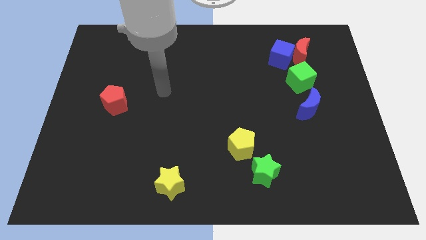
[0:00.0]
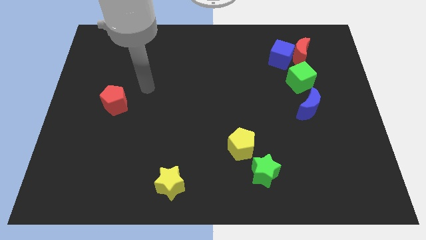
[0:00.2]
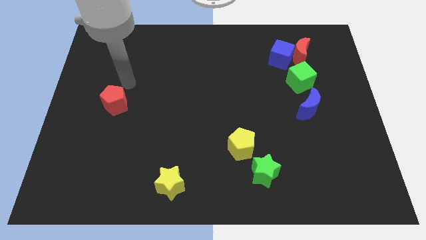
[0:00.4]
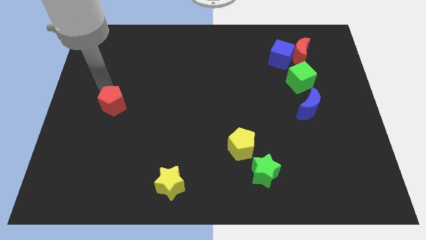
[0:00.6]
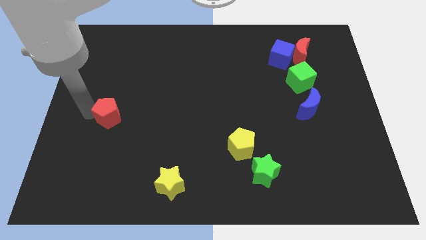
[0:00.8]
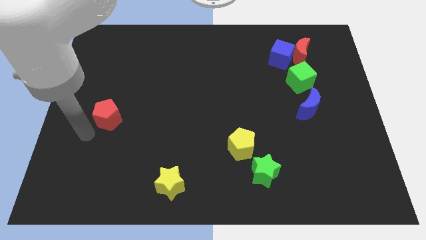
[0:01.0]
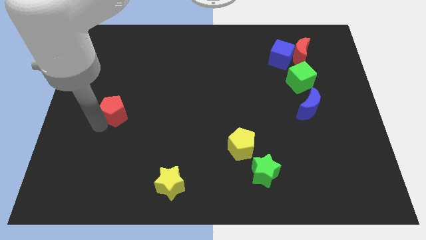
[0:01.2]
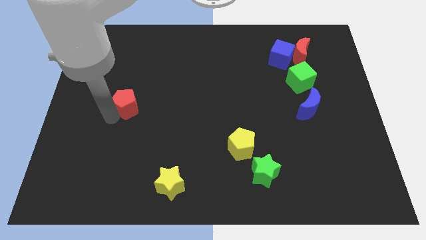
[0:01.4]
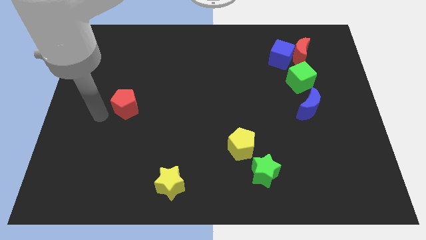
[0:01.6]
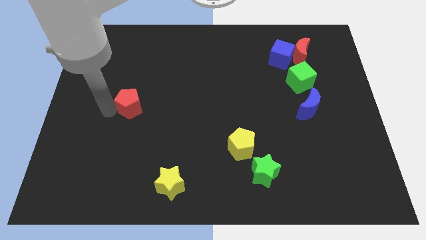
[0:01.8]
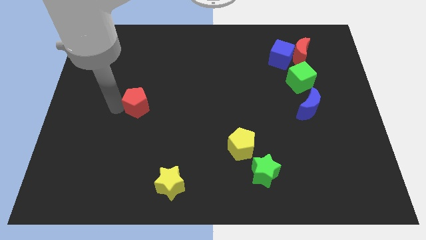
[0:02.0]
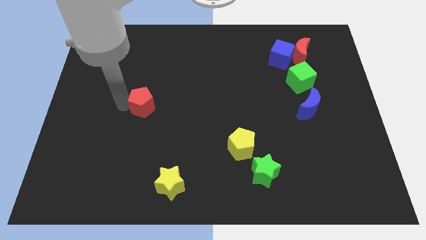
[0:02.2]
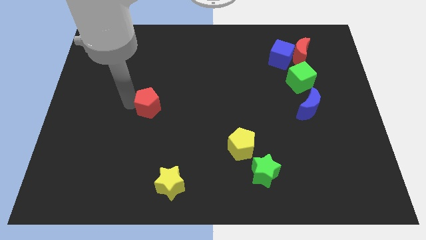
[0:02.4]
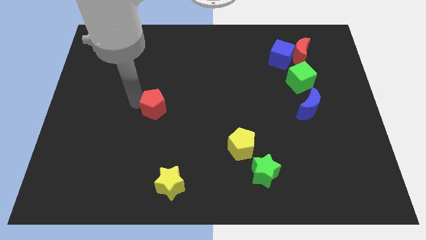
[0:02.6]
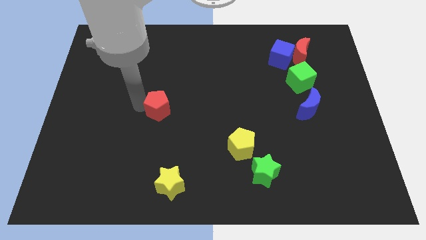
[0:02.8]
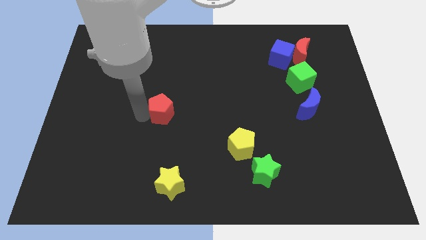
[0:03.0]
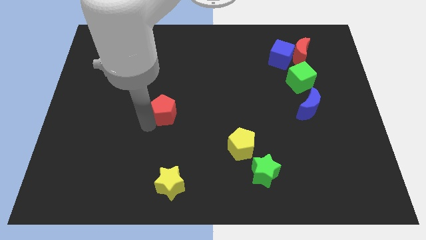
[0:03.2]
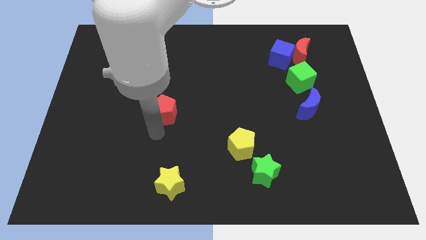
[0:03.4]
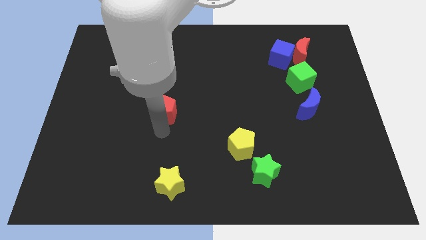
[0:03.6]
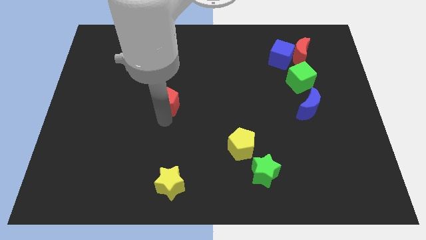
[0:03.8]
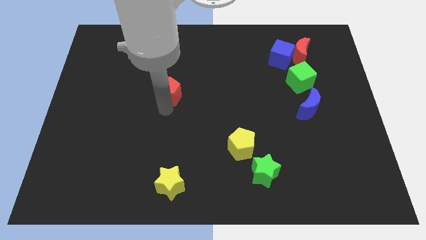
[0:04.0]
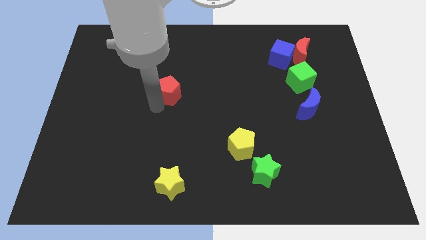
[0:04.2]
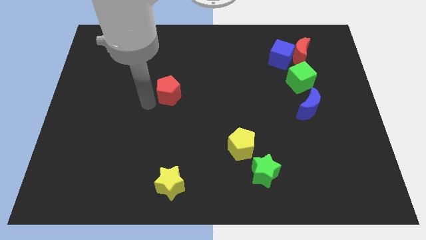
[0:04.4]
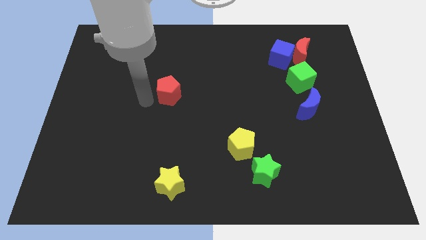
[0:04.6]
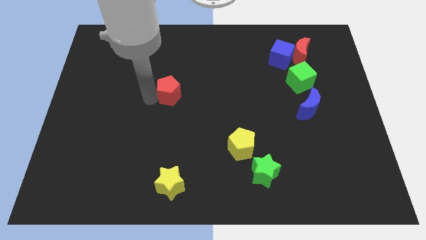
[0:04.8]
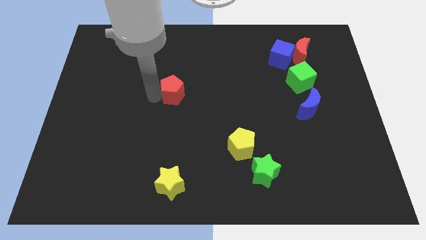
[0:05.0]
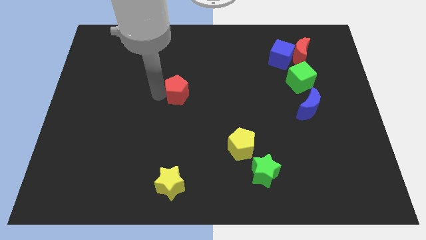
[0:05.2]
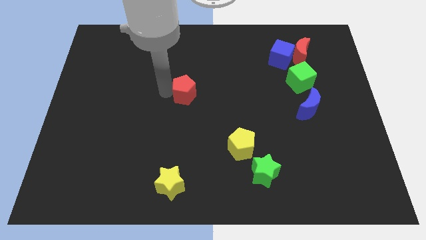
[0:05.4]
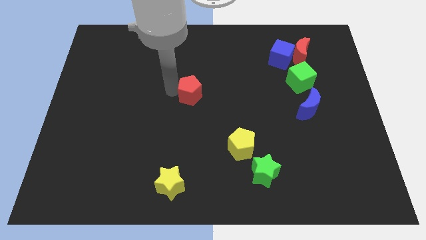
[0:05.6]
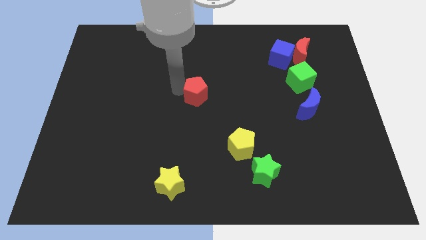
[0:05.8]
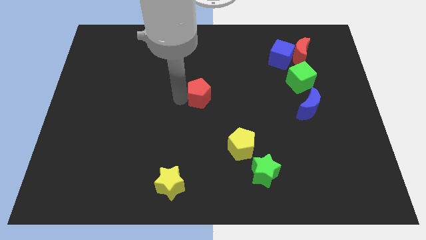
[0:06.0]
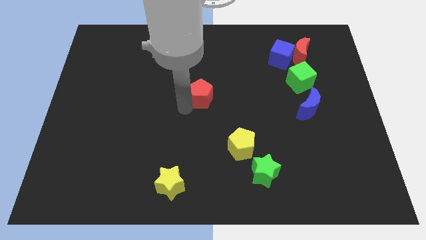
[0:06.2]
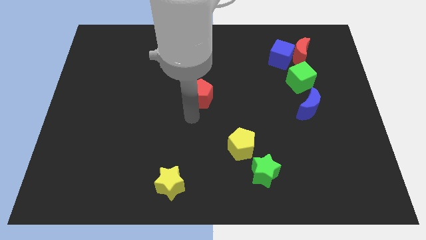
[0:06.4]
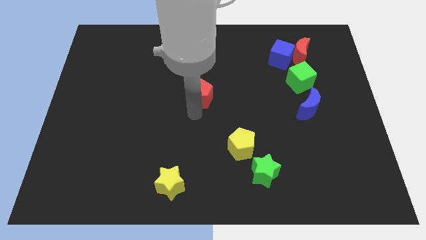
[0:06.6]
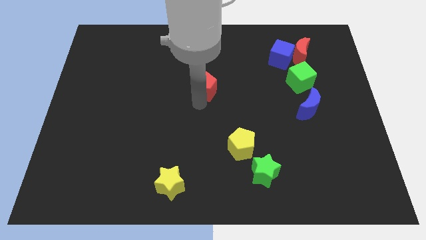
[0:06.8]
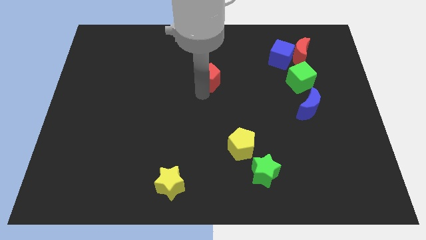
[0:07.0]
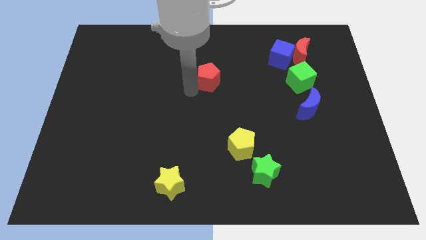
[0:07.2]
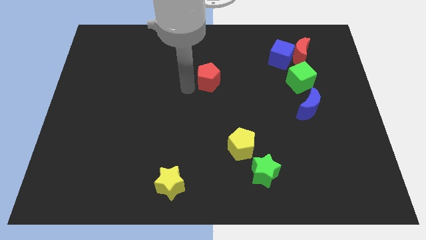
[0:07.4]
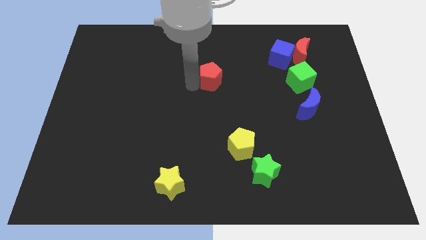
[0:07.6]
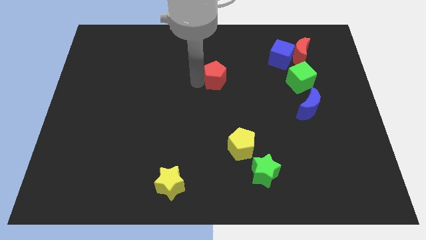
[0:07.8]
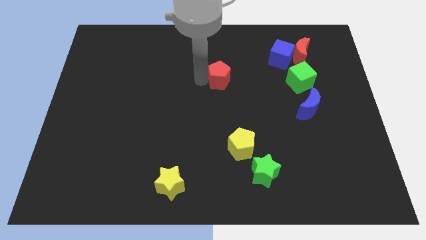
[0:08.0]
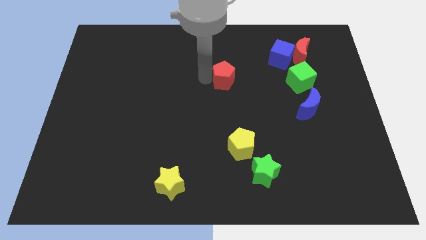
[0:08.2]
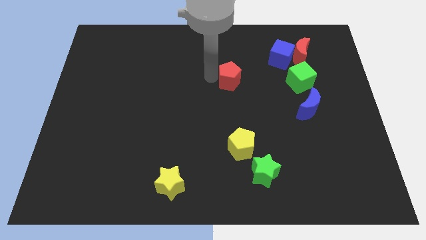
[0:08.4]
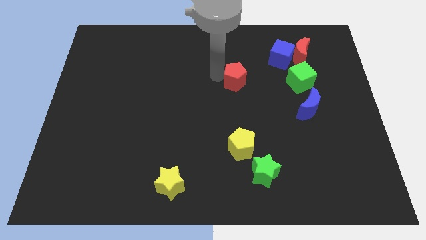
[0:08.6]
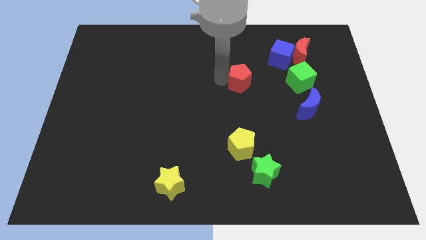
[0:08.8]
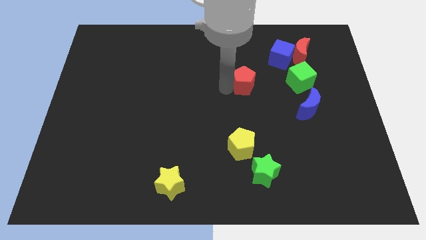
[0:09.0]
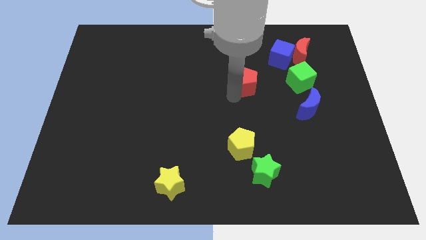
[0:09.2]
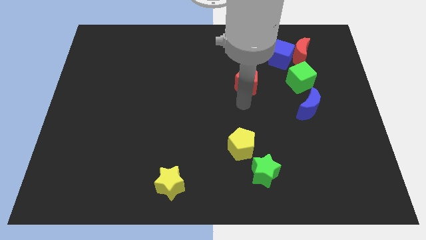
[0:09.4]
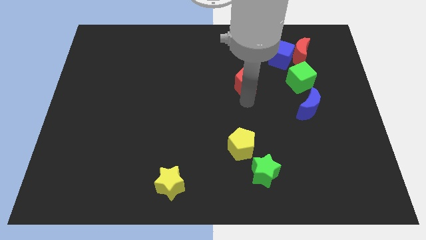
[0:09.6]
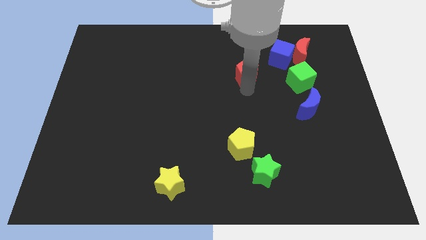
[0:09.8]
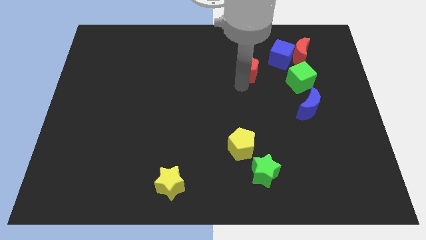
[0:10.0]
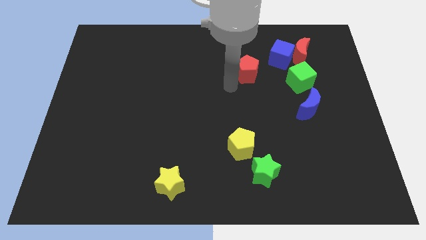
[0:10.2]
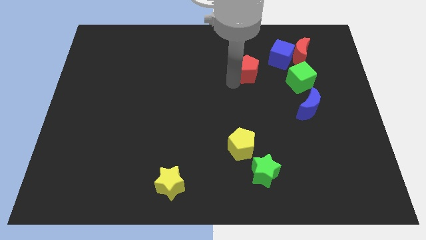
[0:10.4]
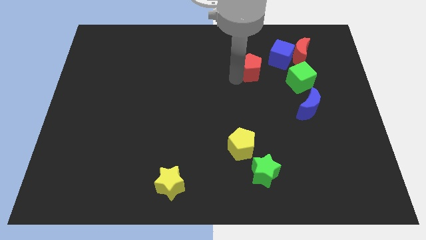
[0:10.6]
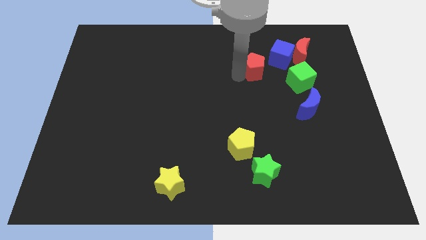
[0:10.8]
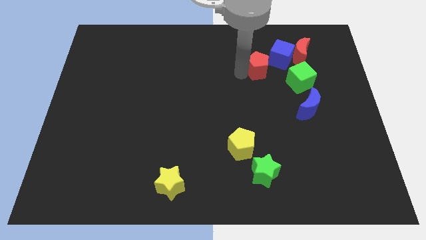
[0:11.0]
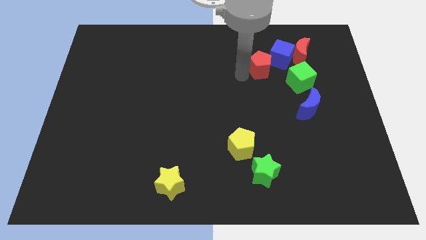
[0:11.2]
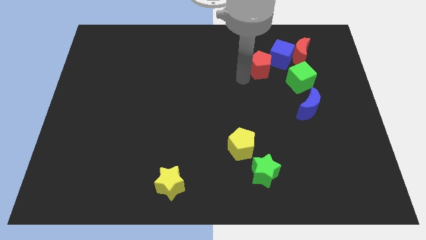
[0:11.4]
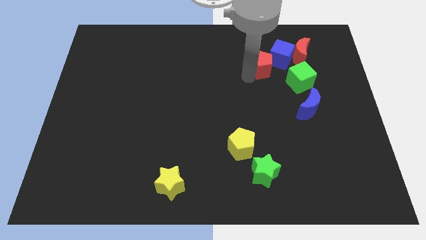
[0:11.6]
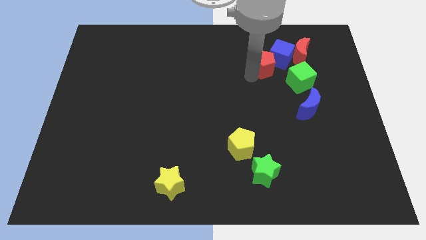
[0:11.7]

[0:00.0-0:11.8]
push the red pentagon to the blue cube
